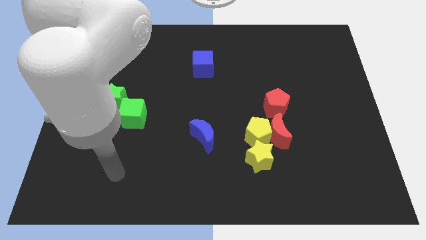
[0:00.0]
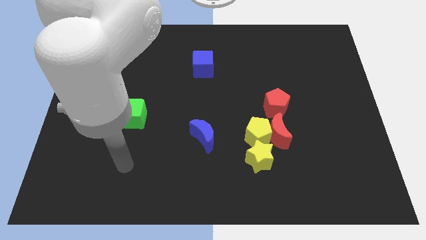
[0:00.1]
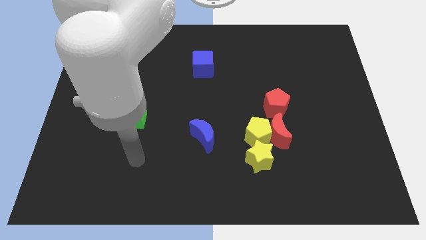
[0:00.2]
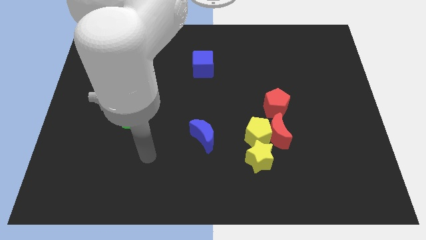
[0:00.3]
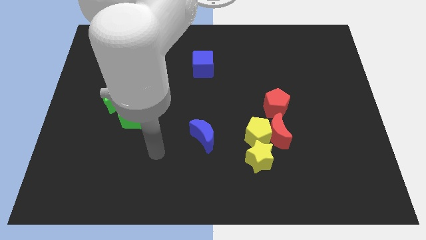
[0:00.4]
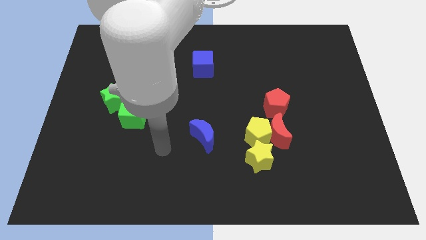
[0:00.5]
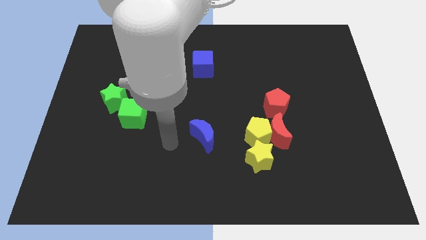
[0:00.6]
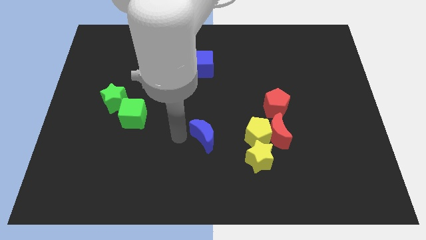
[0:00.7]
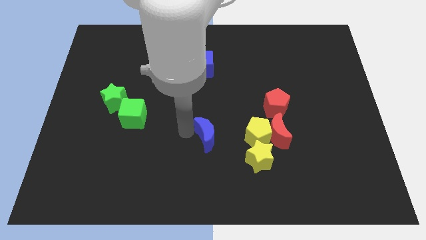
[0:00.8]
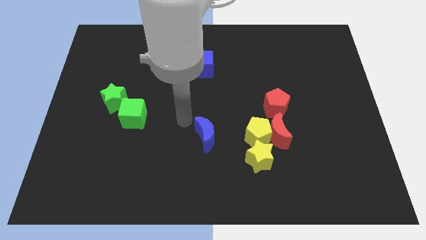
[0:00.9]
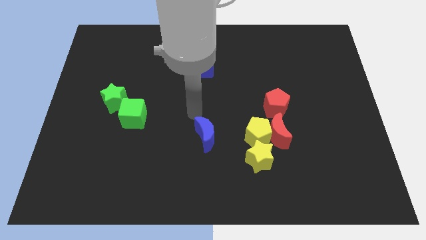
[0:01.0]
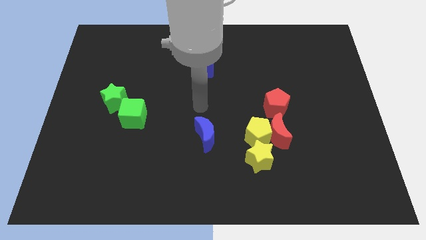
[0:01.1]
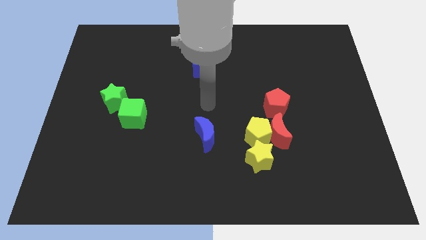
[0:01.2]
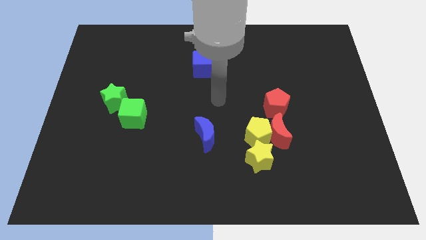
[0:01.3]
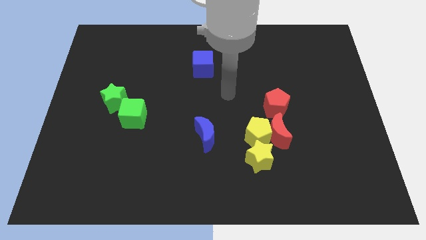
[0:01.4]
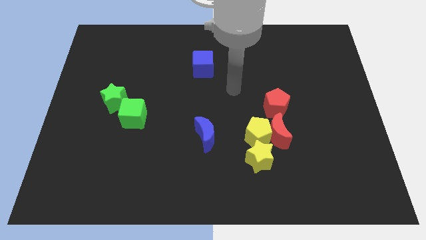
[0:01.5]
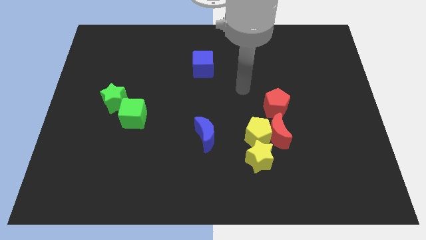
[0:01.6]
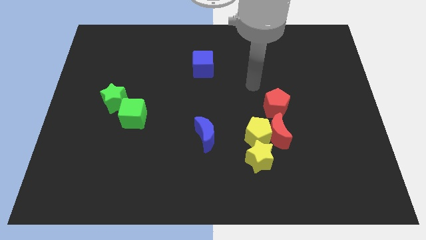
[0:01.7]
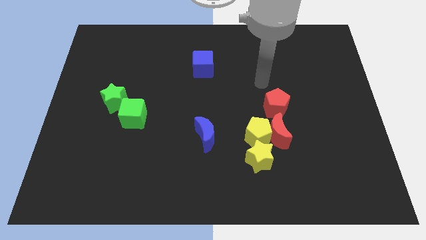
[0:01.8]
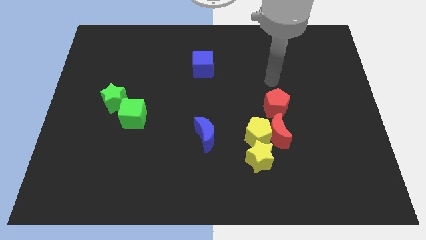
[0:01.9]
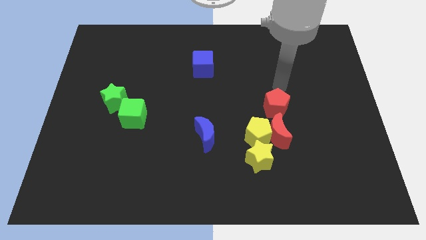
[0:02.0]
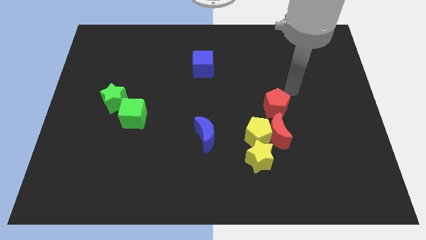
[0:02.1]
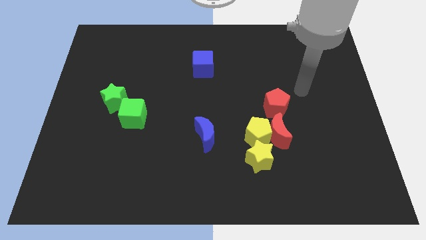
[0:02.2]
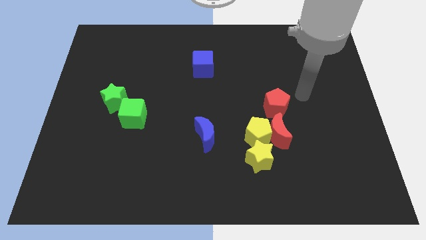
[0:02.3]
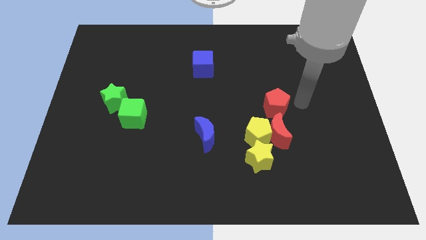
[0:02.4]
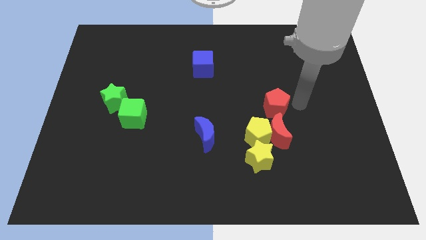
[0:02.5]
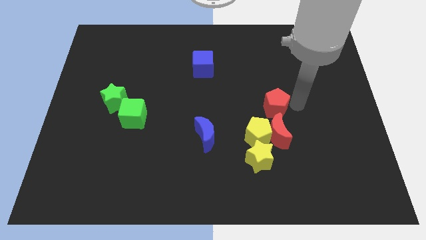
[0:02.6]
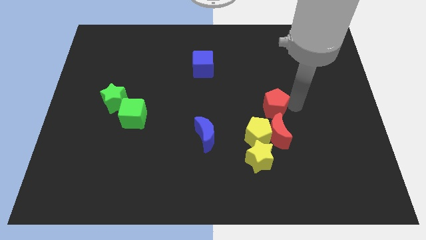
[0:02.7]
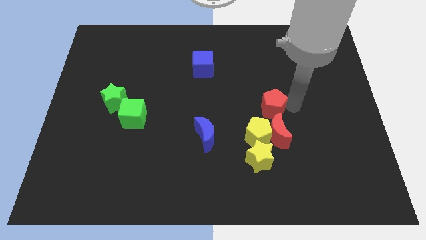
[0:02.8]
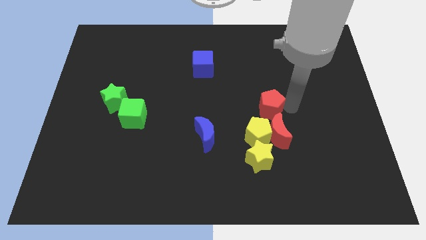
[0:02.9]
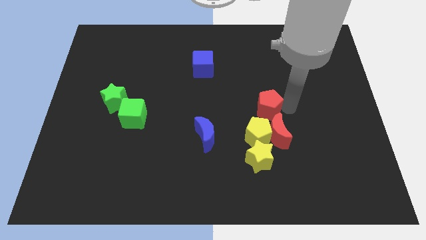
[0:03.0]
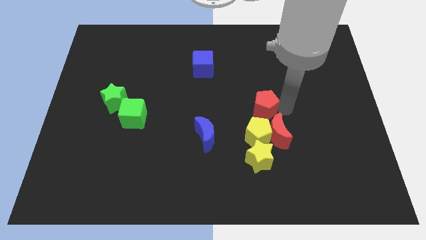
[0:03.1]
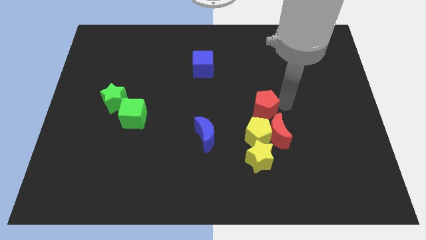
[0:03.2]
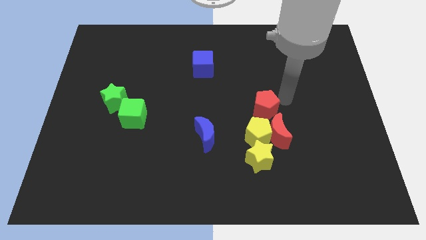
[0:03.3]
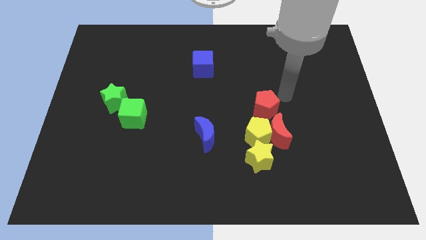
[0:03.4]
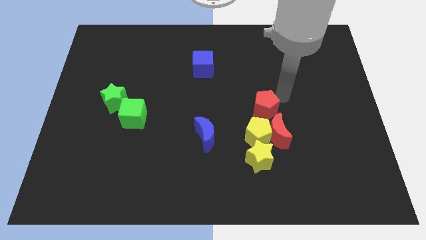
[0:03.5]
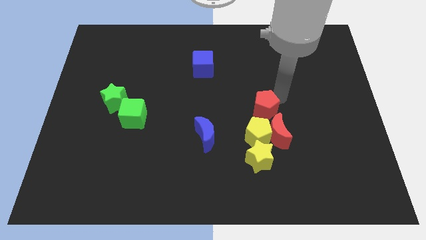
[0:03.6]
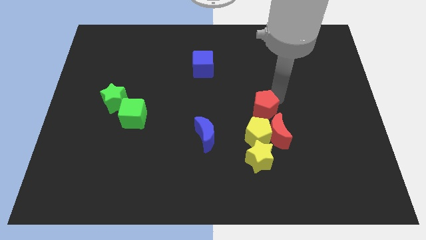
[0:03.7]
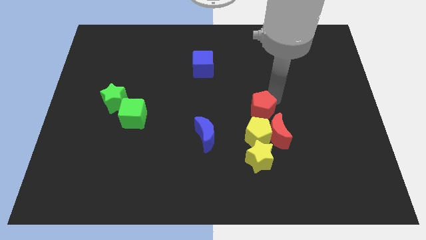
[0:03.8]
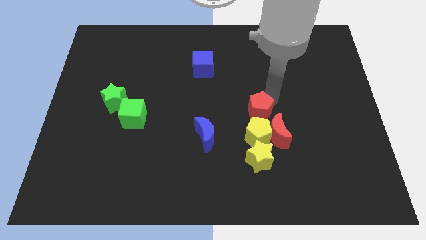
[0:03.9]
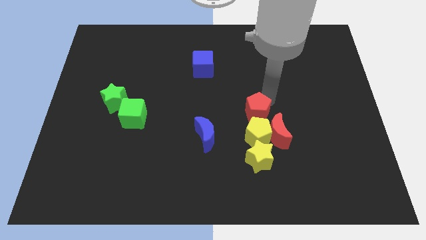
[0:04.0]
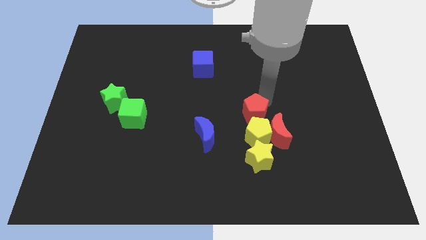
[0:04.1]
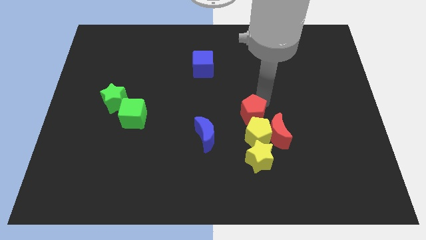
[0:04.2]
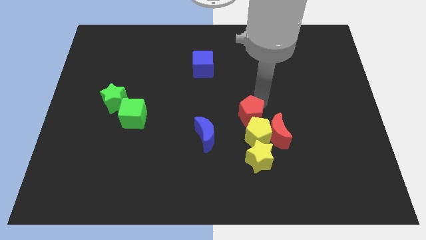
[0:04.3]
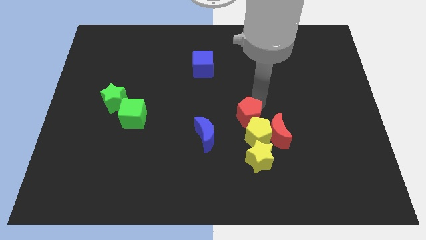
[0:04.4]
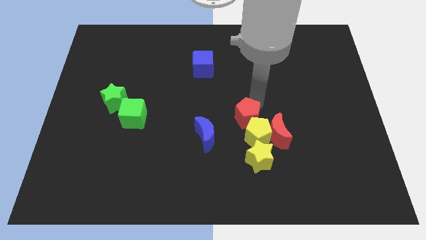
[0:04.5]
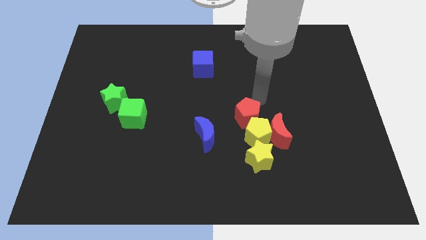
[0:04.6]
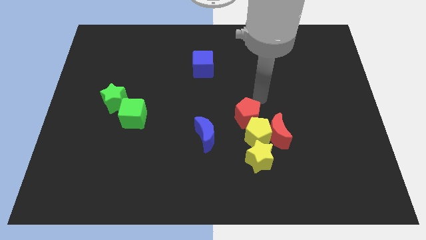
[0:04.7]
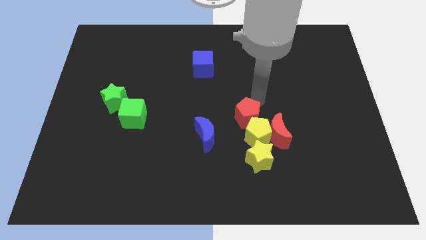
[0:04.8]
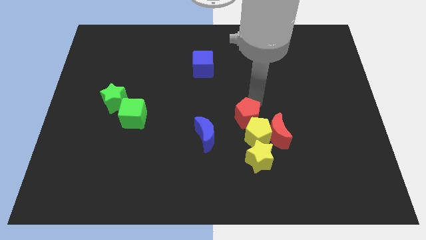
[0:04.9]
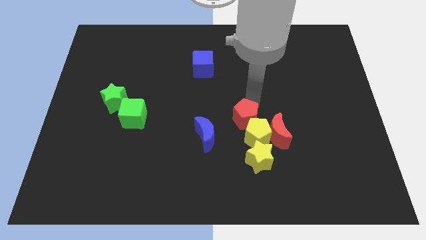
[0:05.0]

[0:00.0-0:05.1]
slightly move the red pentagon down and then left

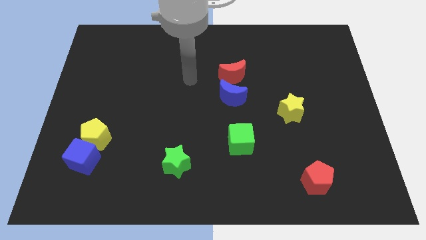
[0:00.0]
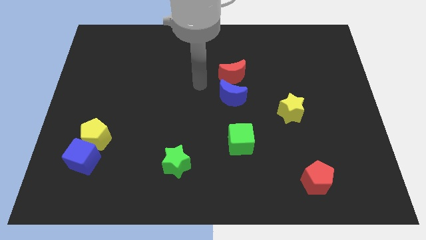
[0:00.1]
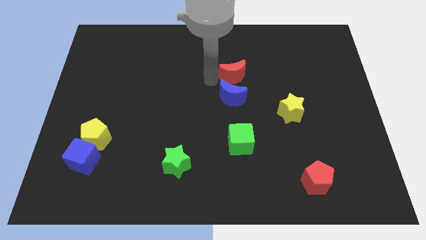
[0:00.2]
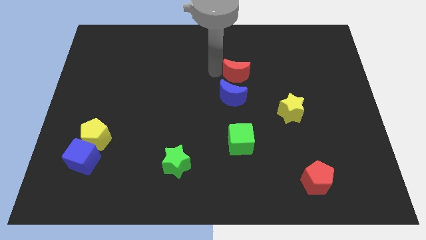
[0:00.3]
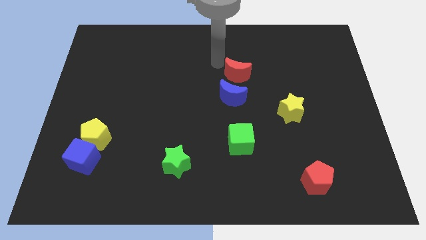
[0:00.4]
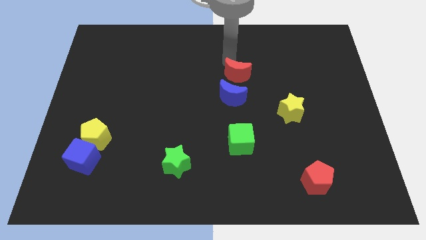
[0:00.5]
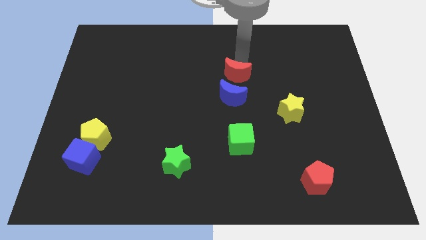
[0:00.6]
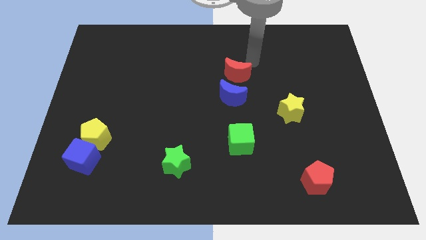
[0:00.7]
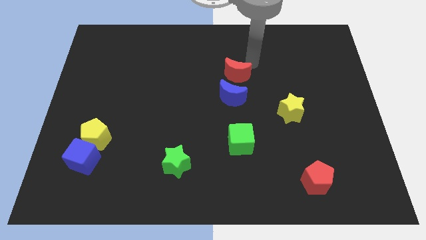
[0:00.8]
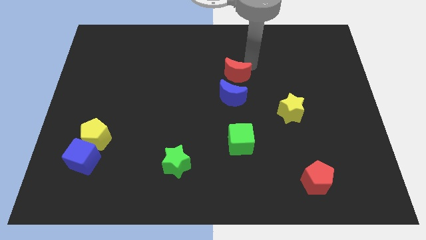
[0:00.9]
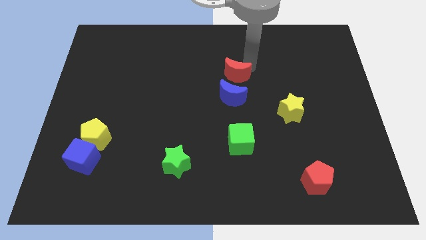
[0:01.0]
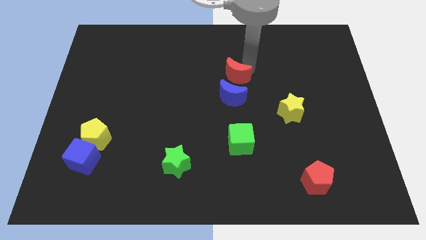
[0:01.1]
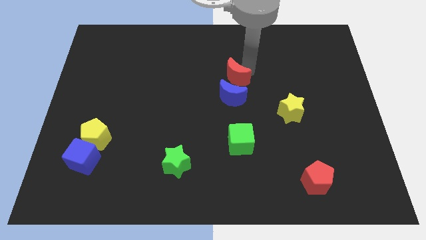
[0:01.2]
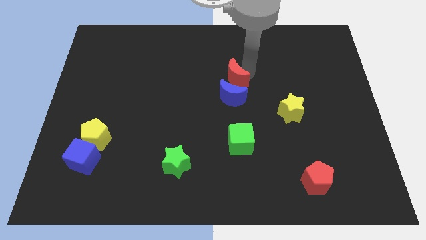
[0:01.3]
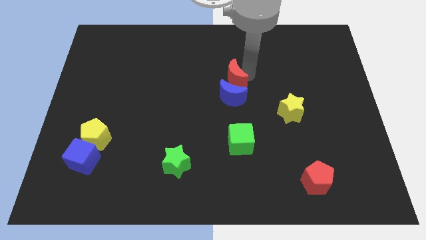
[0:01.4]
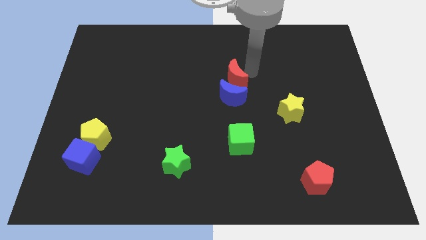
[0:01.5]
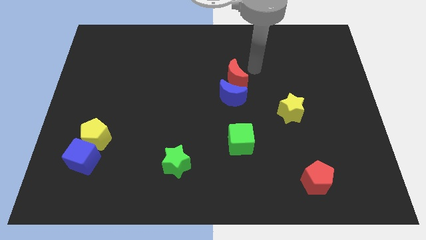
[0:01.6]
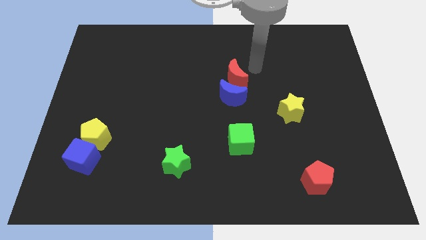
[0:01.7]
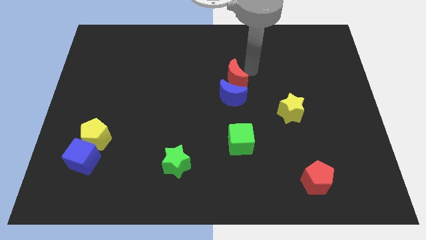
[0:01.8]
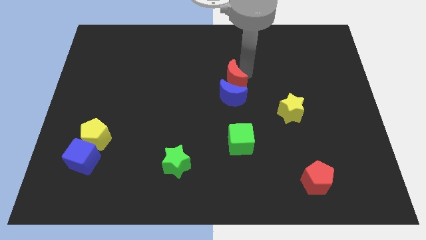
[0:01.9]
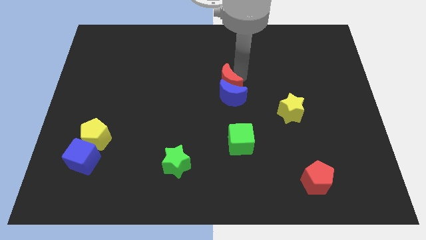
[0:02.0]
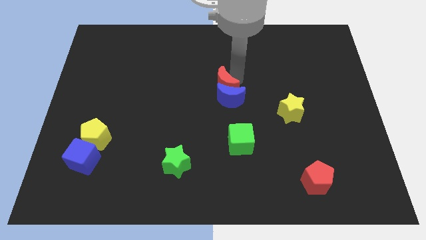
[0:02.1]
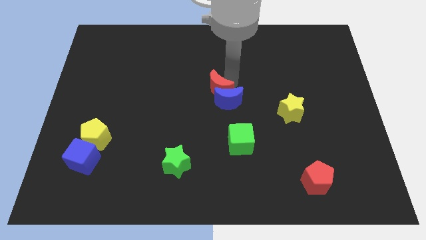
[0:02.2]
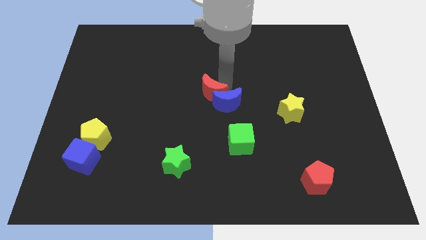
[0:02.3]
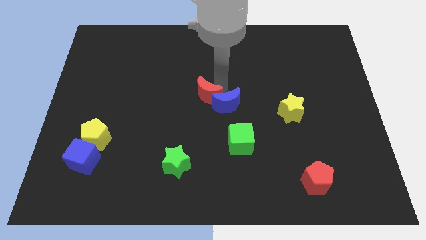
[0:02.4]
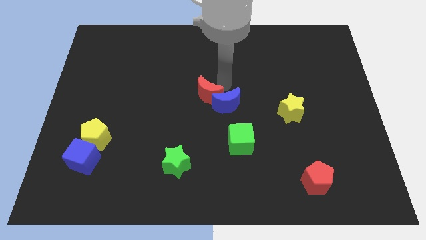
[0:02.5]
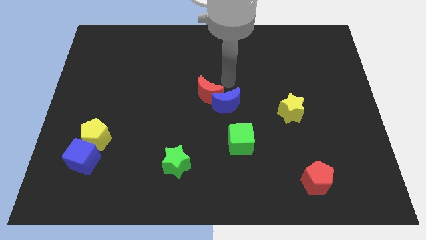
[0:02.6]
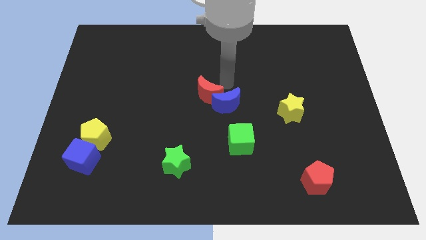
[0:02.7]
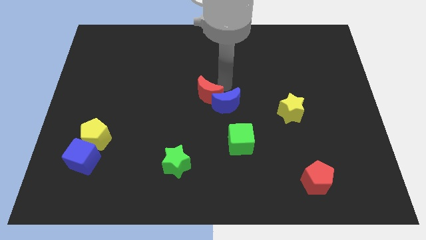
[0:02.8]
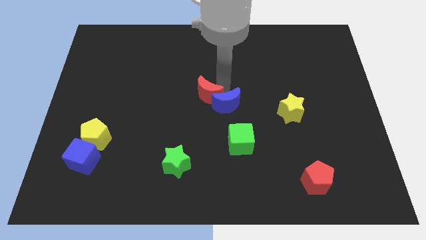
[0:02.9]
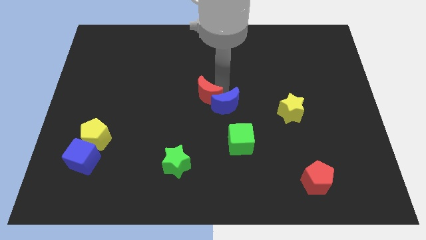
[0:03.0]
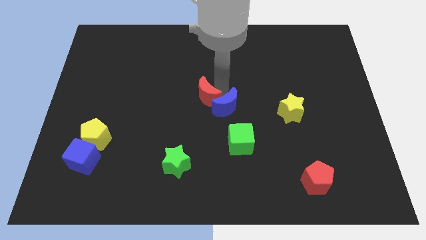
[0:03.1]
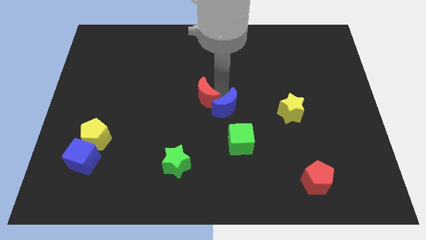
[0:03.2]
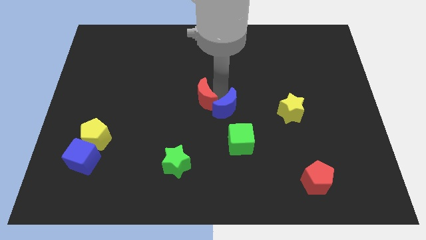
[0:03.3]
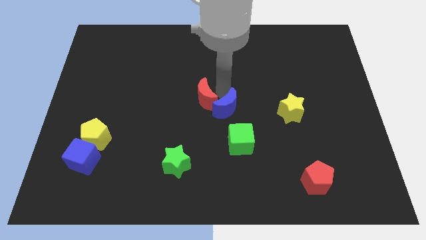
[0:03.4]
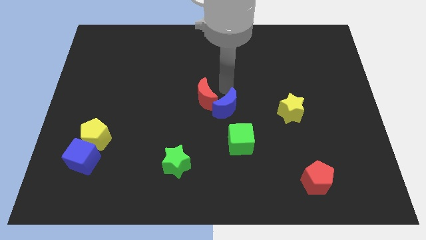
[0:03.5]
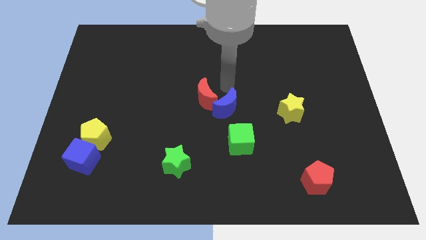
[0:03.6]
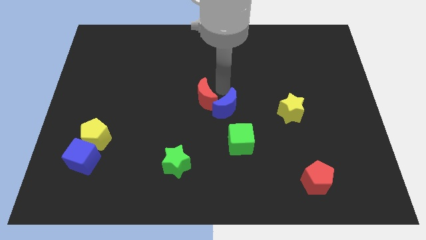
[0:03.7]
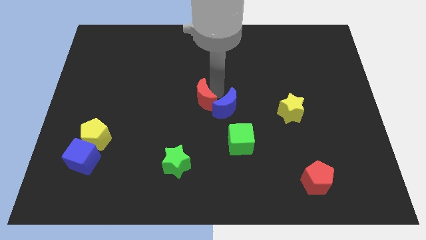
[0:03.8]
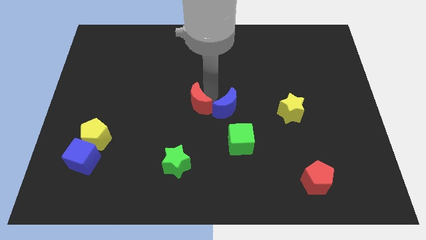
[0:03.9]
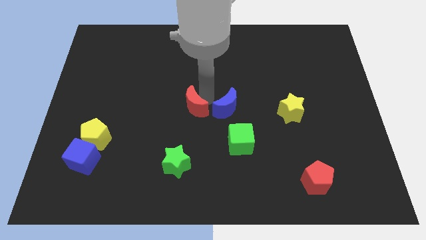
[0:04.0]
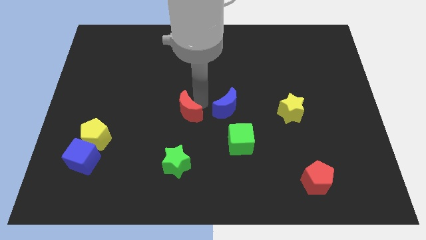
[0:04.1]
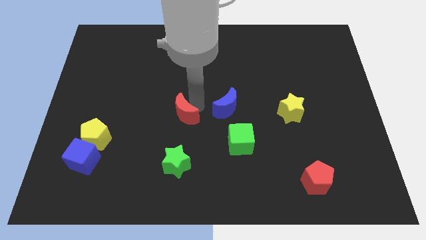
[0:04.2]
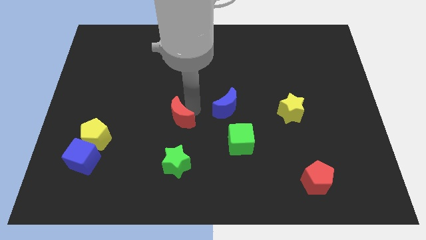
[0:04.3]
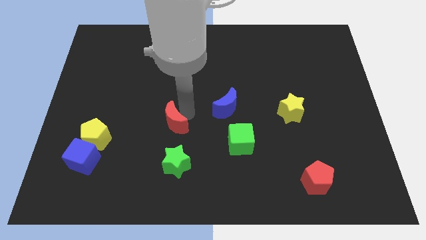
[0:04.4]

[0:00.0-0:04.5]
push the red moon down and to the left
